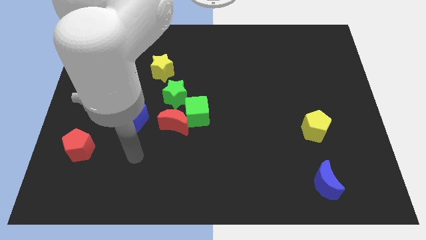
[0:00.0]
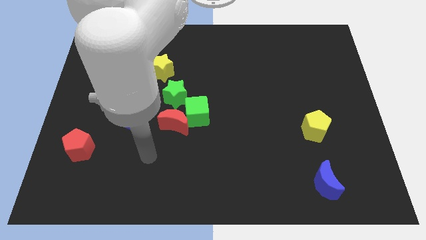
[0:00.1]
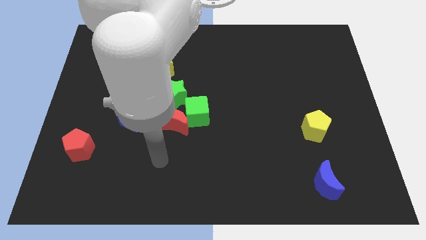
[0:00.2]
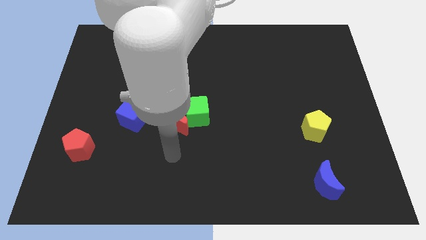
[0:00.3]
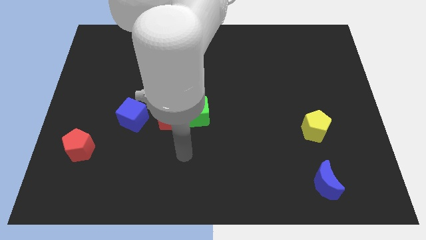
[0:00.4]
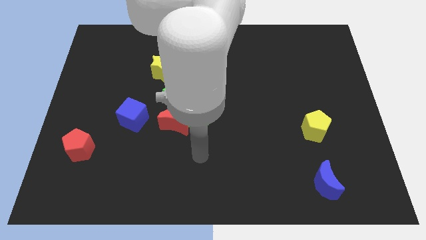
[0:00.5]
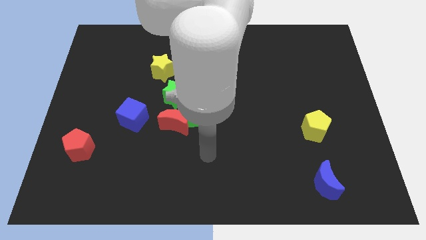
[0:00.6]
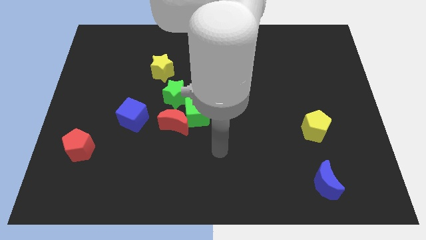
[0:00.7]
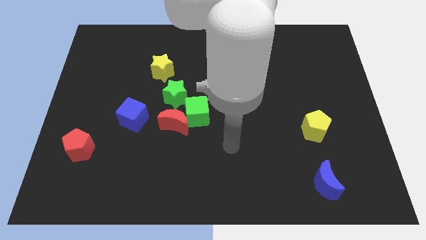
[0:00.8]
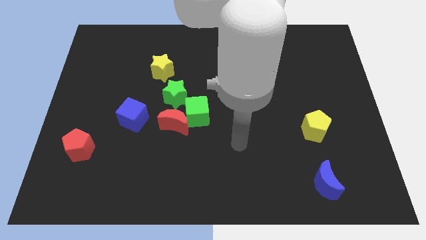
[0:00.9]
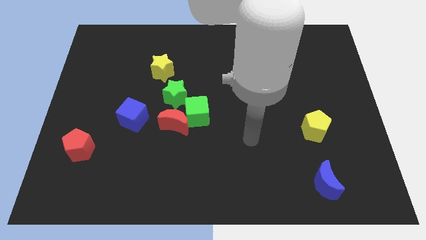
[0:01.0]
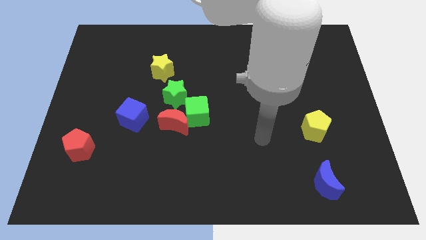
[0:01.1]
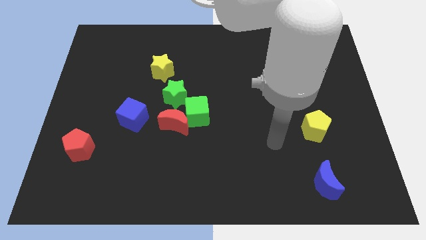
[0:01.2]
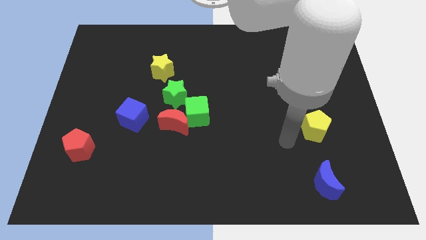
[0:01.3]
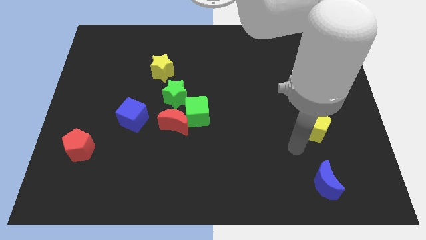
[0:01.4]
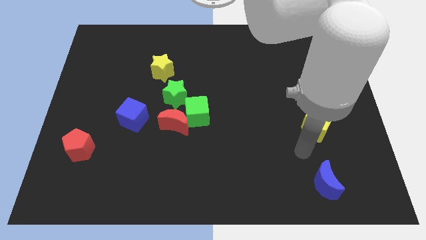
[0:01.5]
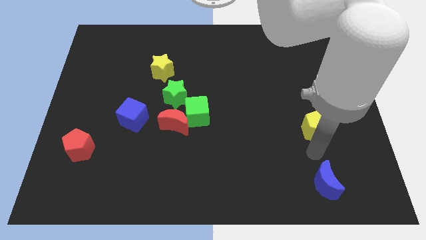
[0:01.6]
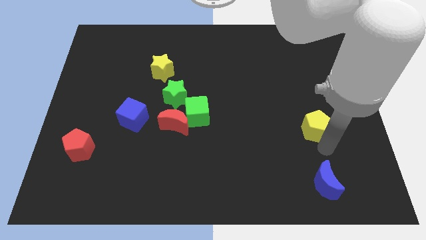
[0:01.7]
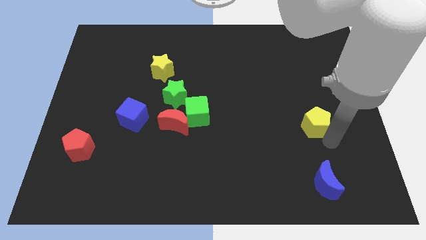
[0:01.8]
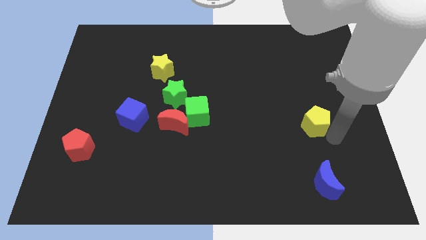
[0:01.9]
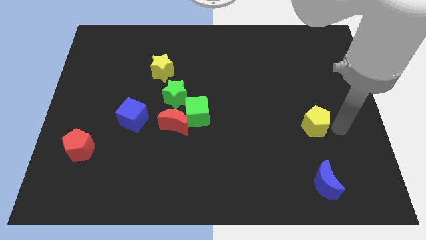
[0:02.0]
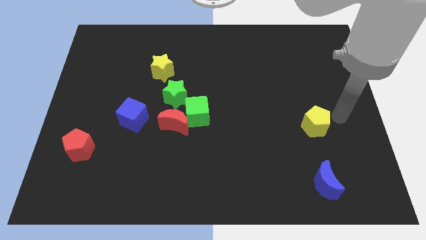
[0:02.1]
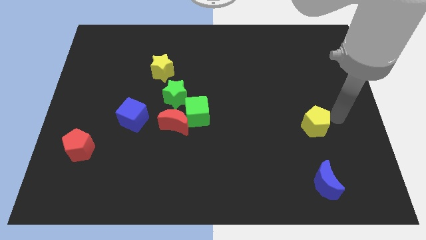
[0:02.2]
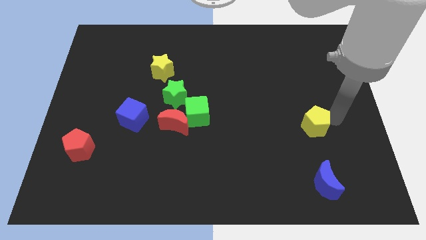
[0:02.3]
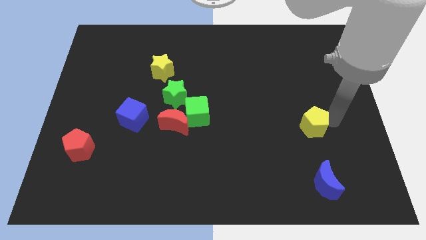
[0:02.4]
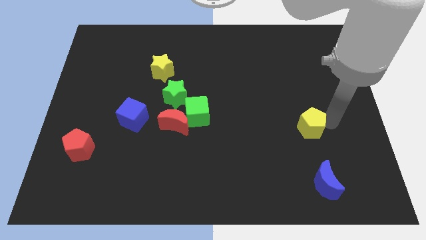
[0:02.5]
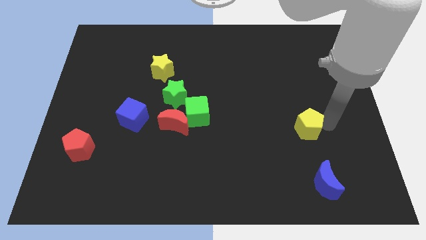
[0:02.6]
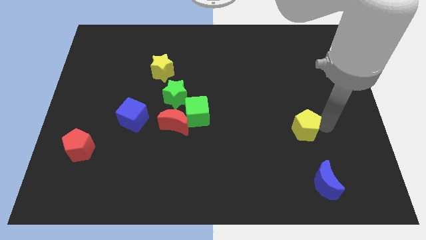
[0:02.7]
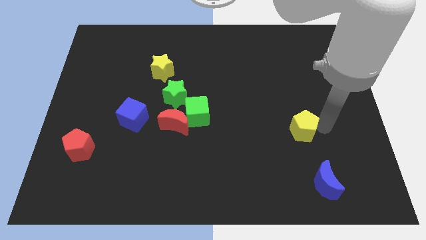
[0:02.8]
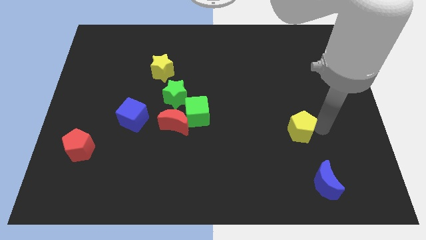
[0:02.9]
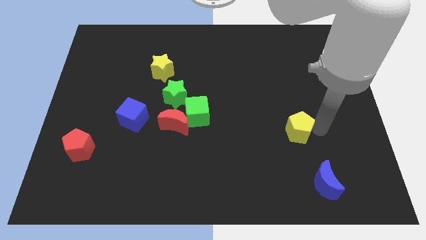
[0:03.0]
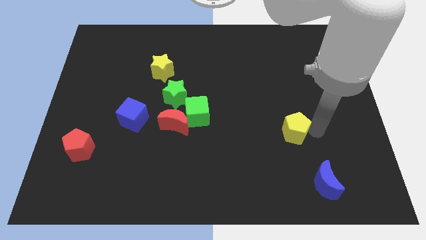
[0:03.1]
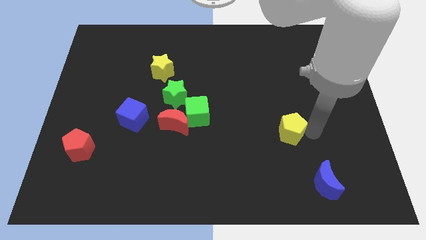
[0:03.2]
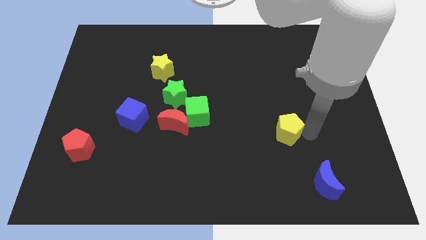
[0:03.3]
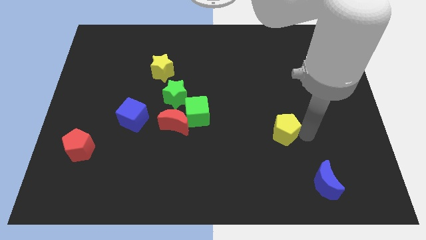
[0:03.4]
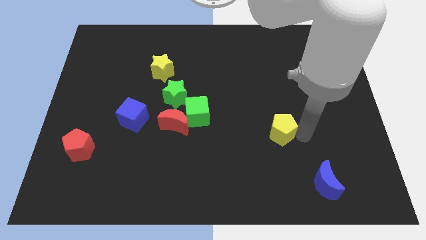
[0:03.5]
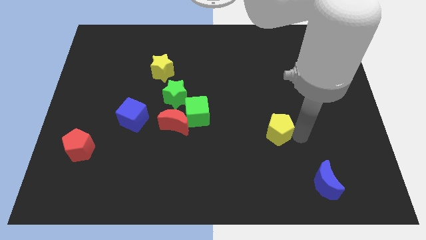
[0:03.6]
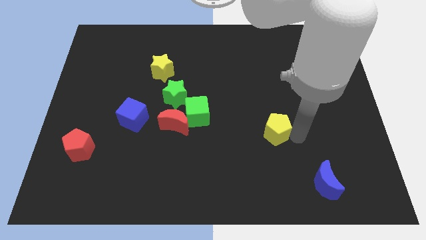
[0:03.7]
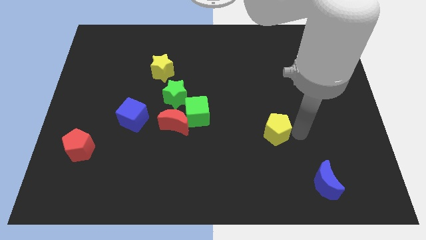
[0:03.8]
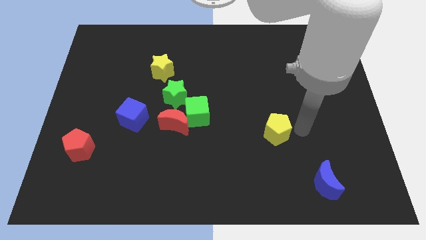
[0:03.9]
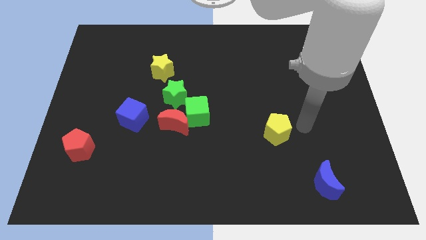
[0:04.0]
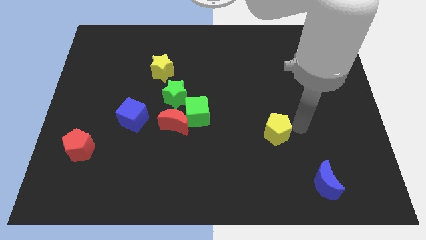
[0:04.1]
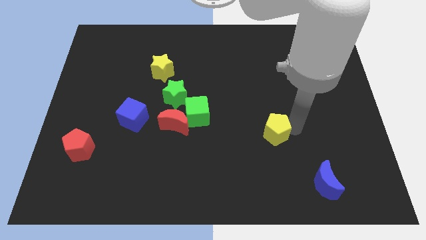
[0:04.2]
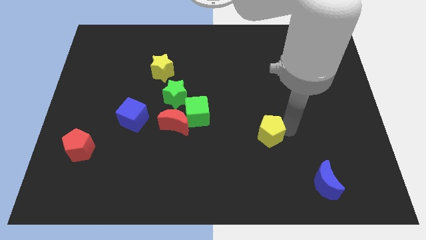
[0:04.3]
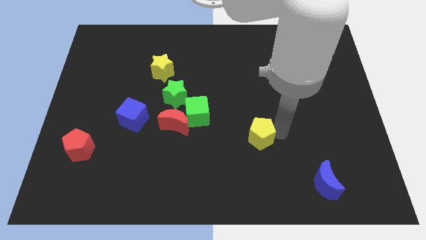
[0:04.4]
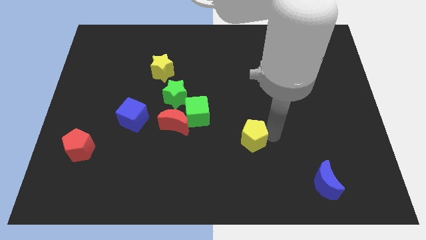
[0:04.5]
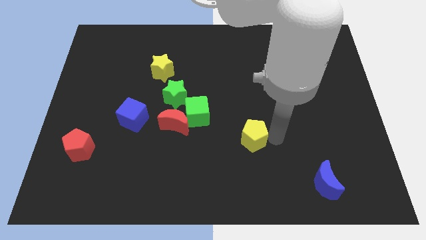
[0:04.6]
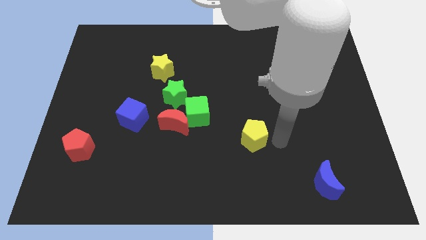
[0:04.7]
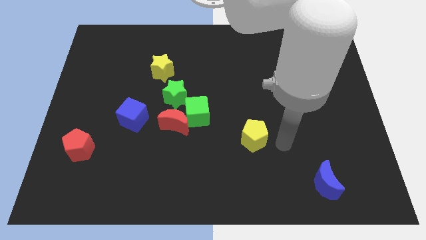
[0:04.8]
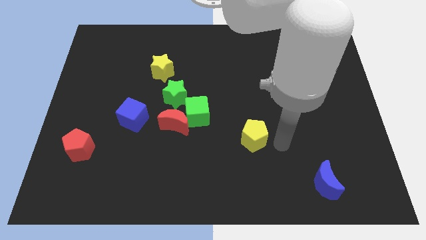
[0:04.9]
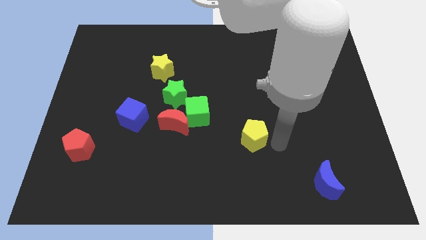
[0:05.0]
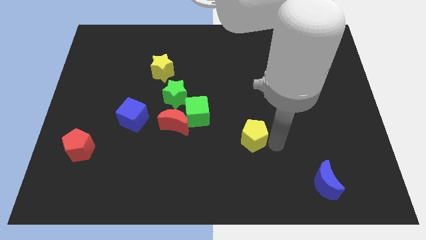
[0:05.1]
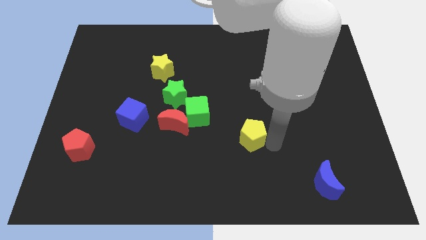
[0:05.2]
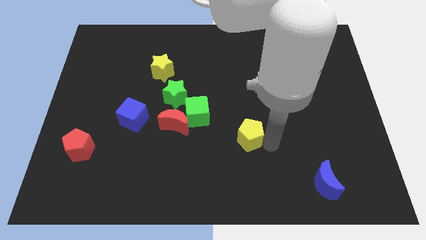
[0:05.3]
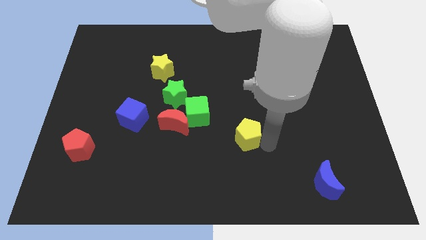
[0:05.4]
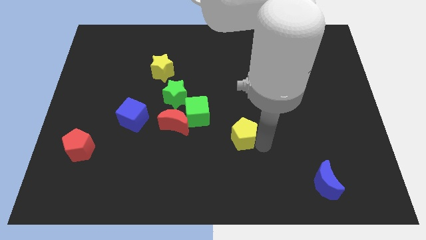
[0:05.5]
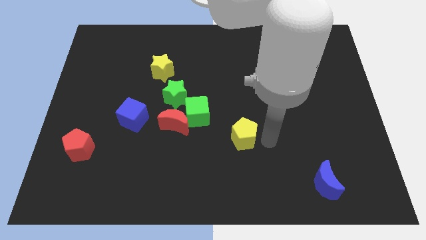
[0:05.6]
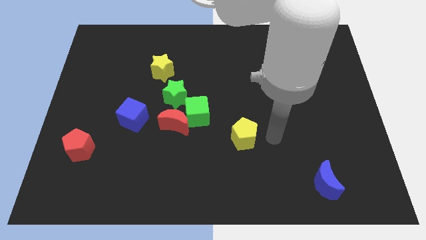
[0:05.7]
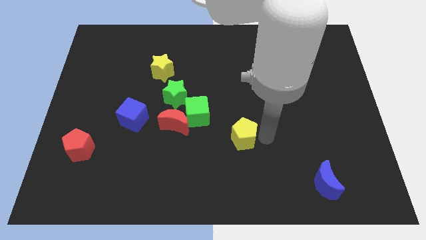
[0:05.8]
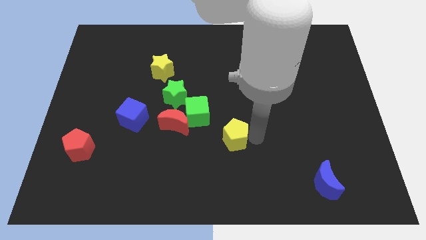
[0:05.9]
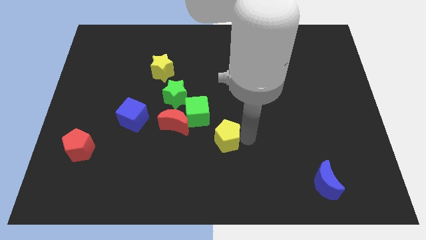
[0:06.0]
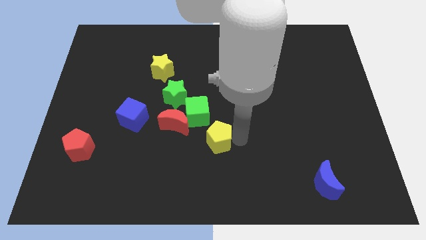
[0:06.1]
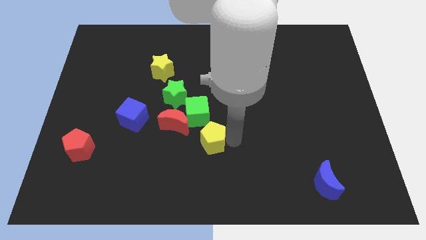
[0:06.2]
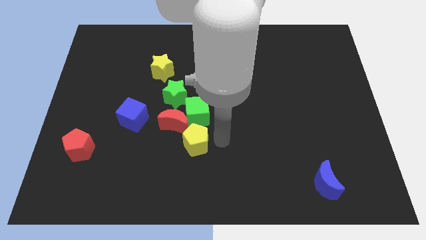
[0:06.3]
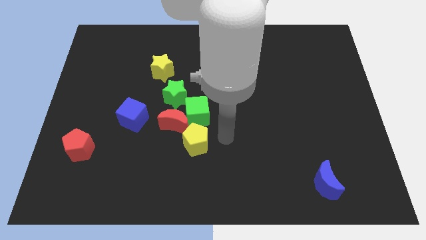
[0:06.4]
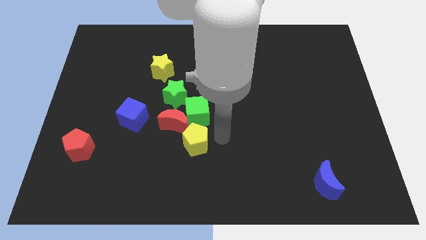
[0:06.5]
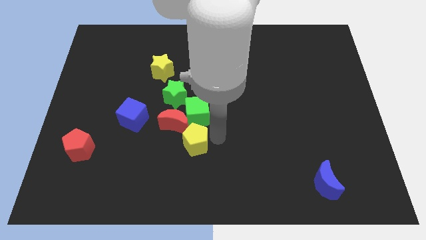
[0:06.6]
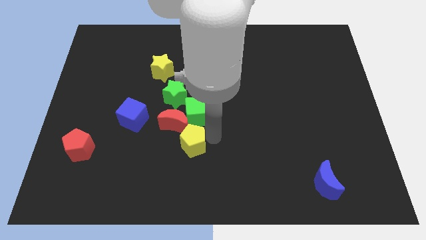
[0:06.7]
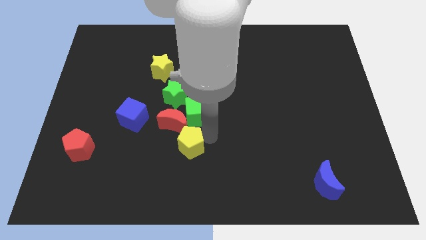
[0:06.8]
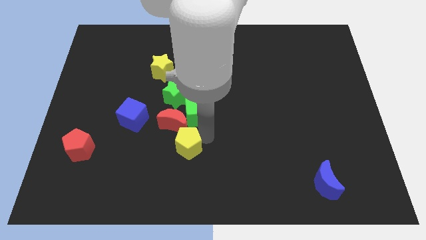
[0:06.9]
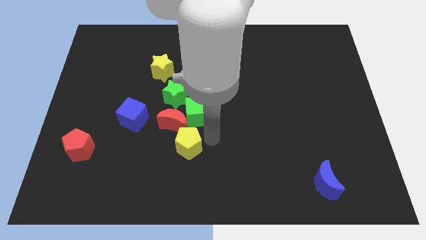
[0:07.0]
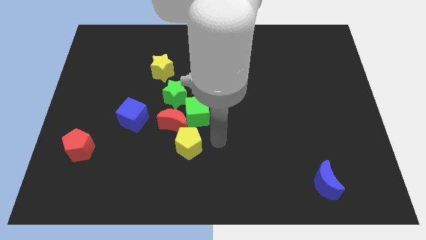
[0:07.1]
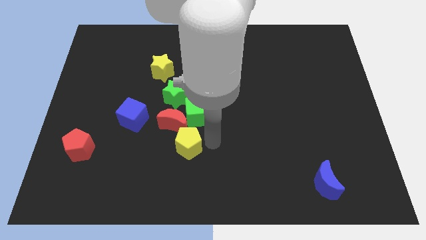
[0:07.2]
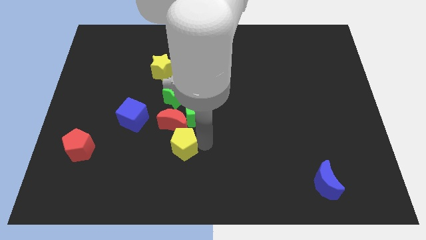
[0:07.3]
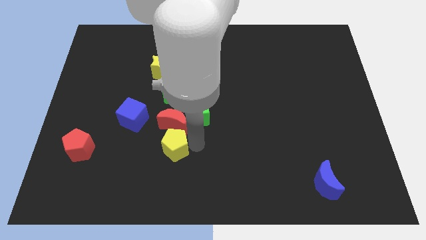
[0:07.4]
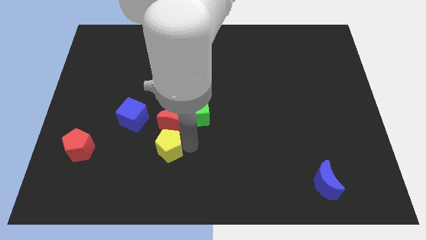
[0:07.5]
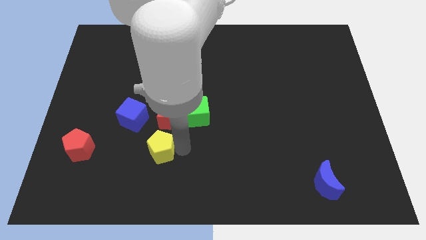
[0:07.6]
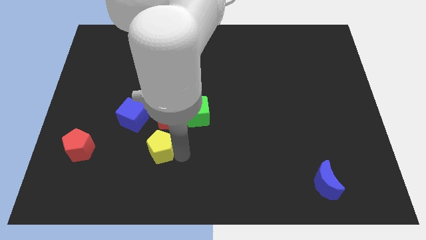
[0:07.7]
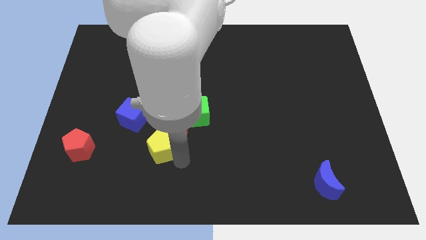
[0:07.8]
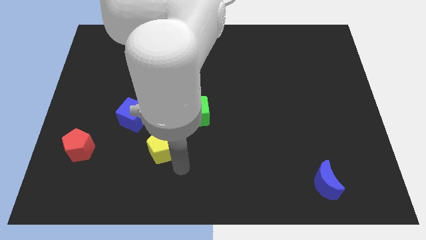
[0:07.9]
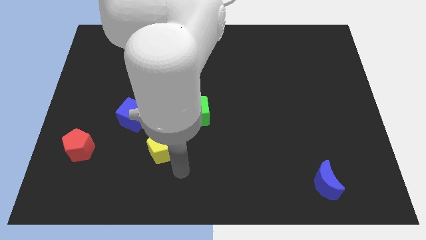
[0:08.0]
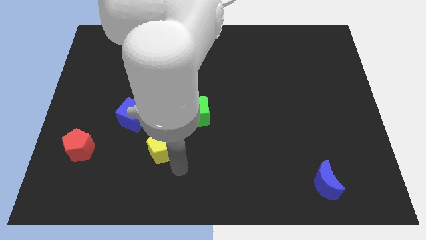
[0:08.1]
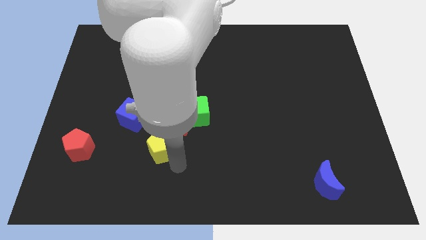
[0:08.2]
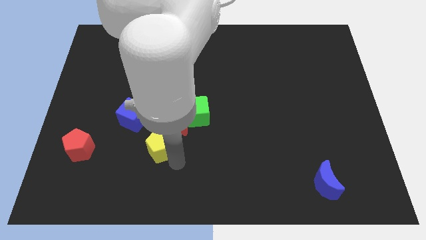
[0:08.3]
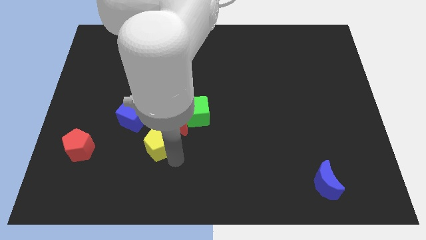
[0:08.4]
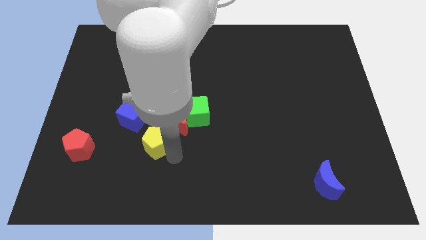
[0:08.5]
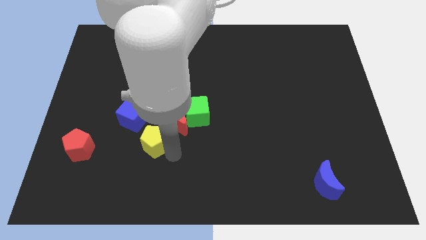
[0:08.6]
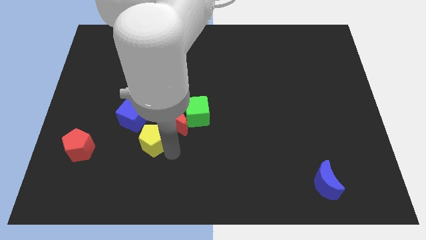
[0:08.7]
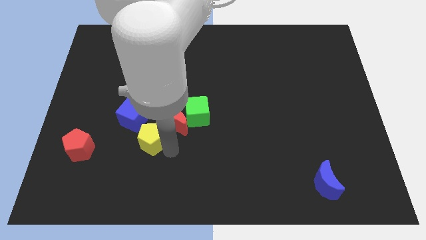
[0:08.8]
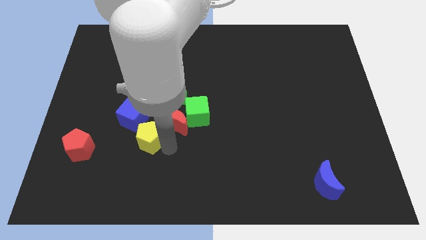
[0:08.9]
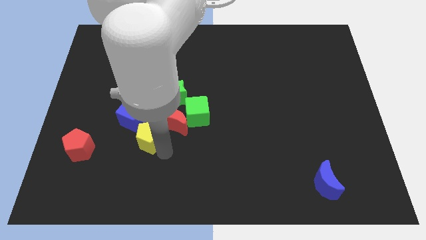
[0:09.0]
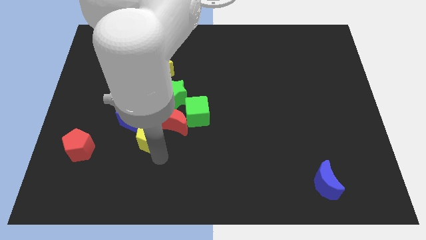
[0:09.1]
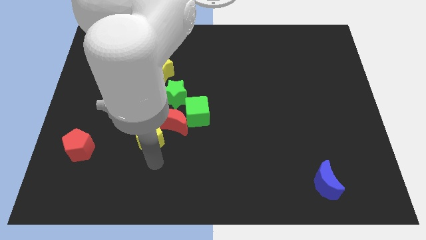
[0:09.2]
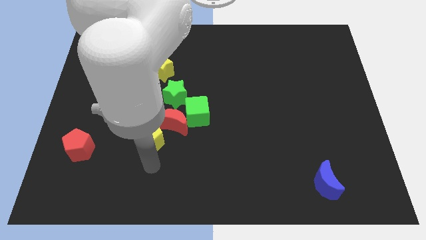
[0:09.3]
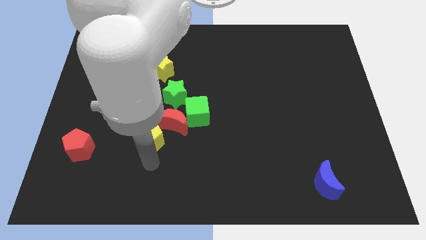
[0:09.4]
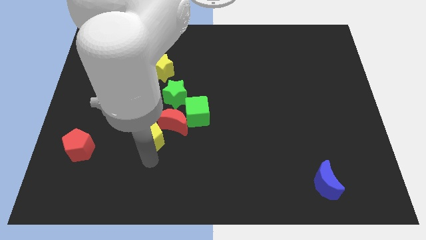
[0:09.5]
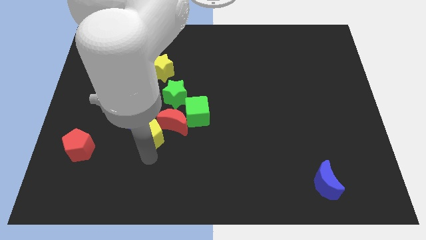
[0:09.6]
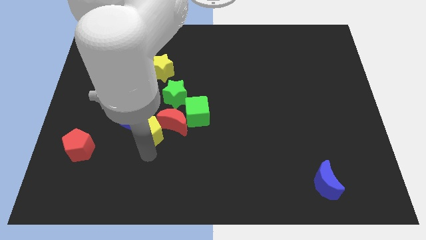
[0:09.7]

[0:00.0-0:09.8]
move the yellow pentagon diagonally down and to the left of the green star
